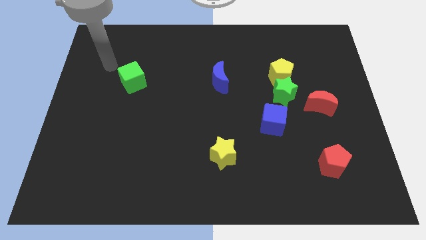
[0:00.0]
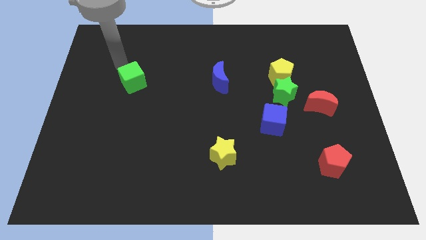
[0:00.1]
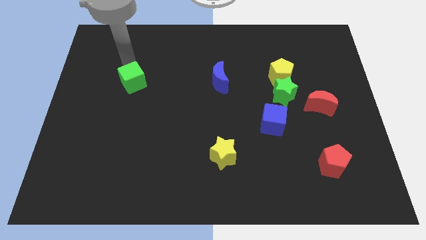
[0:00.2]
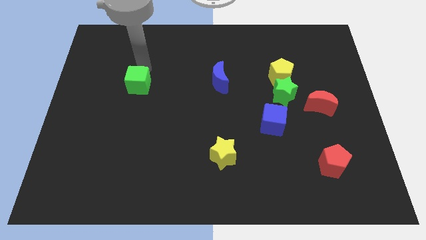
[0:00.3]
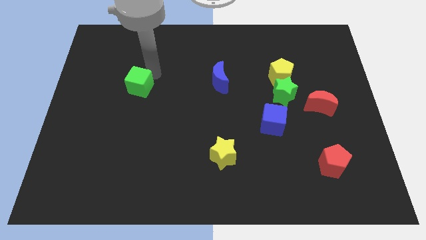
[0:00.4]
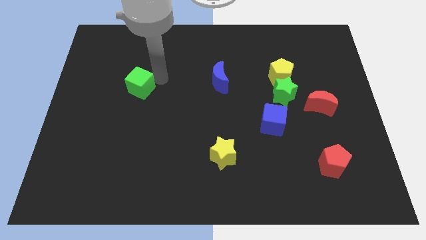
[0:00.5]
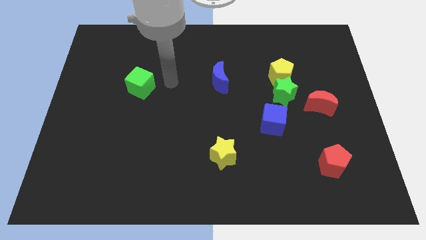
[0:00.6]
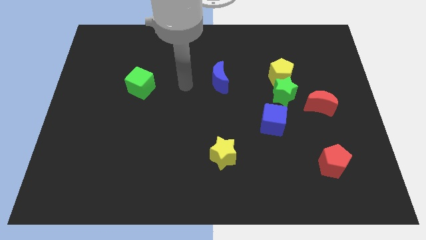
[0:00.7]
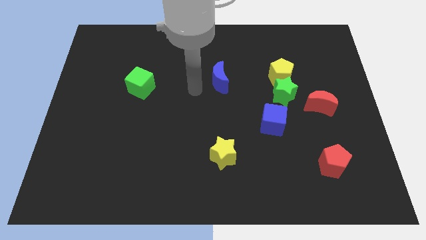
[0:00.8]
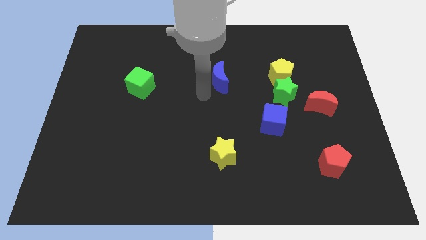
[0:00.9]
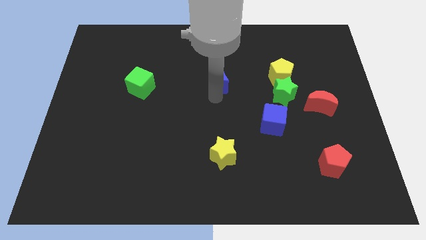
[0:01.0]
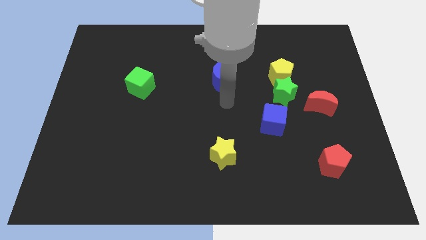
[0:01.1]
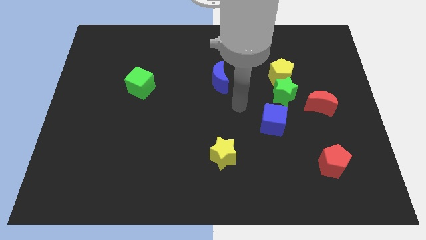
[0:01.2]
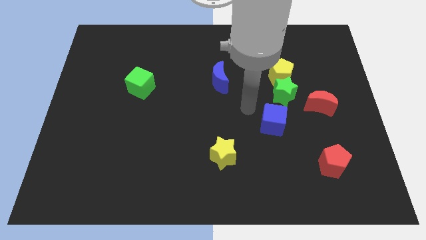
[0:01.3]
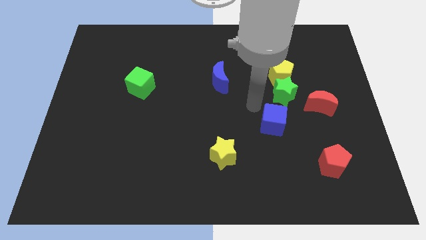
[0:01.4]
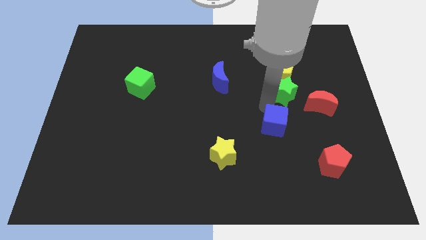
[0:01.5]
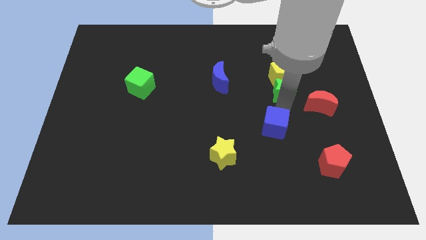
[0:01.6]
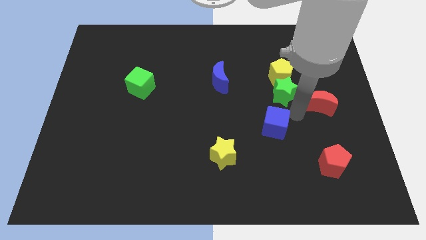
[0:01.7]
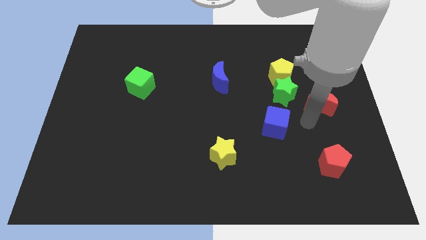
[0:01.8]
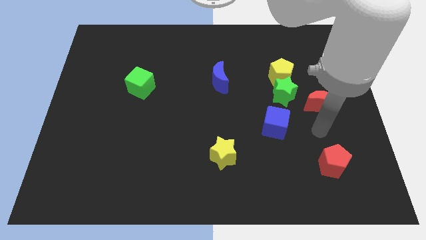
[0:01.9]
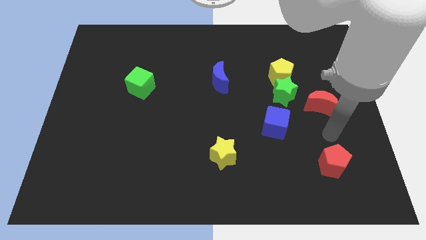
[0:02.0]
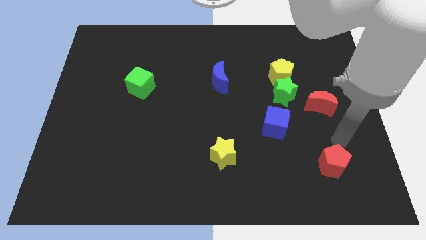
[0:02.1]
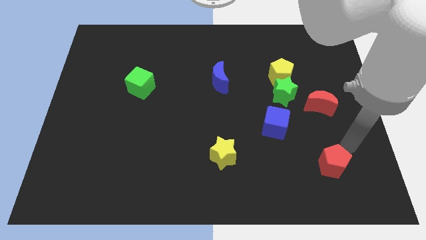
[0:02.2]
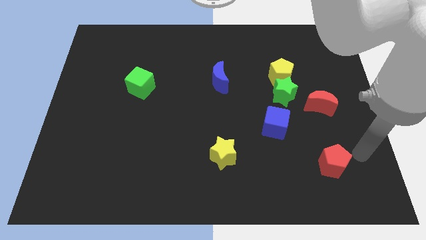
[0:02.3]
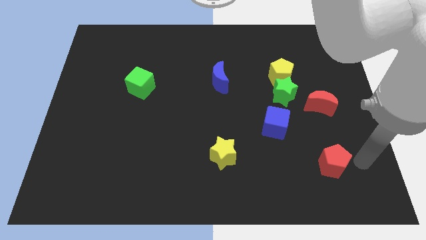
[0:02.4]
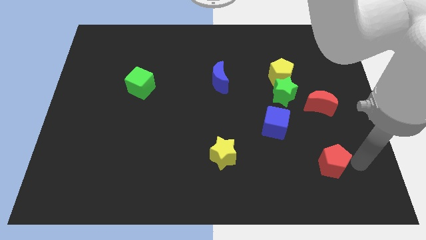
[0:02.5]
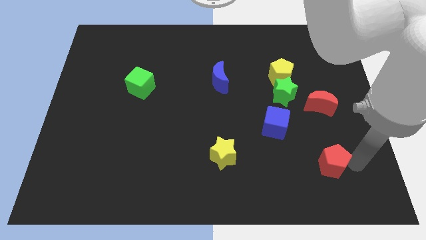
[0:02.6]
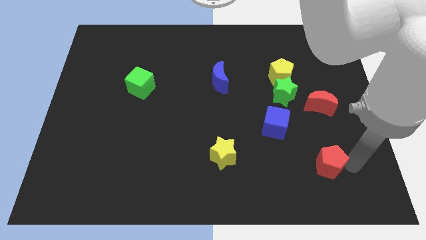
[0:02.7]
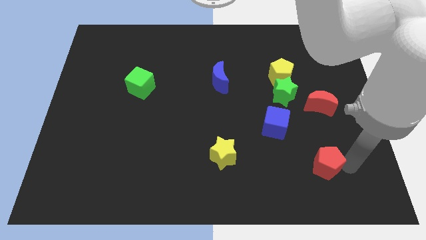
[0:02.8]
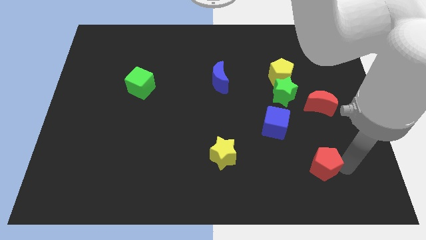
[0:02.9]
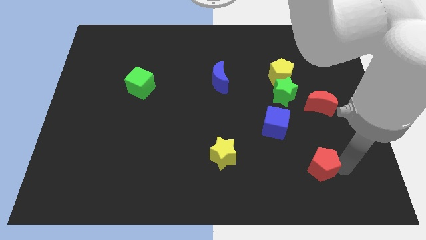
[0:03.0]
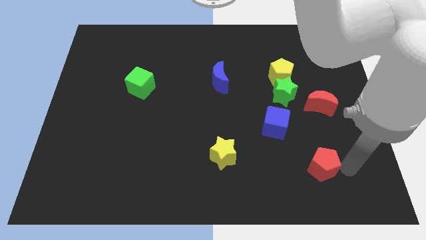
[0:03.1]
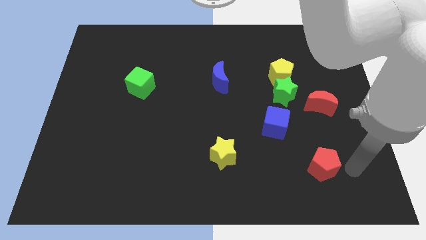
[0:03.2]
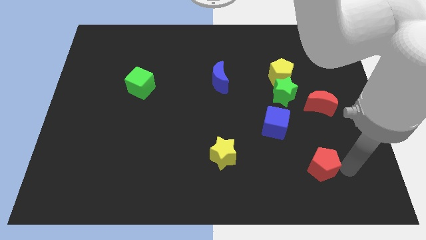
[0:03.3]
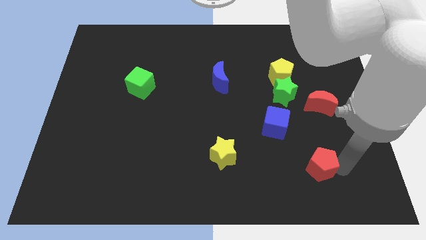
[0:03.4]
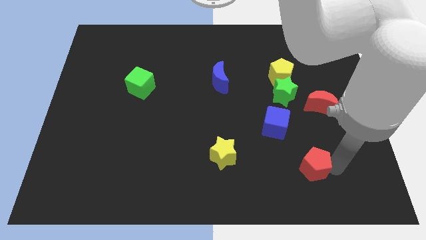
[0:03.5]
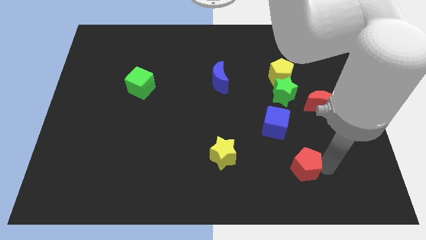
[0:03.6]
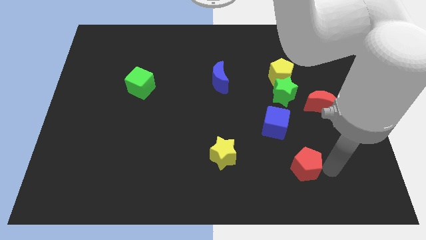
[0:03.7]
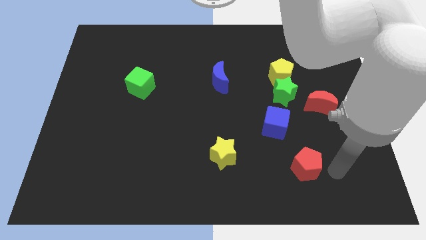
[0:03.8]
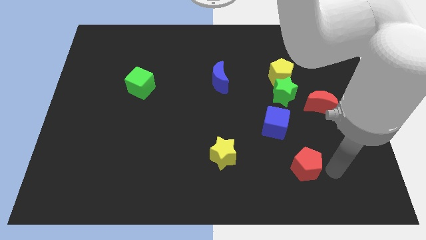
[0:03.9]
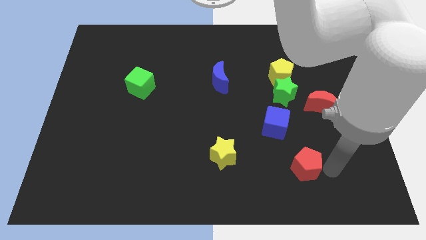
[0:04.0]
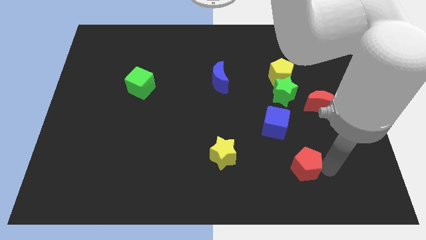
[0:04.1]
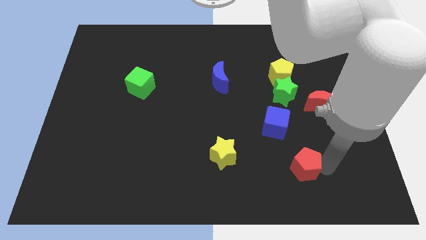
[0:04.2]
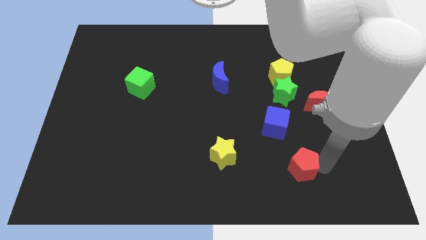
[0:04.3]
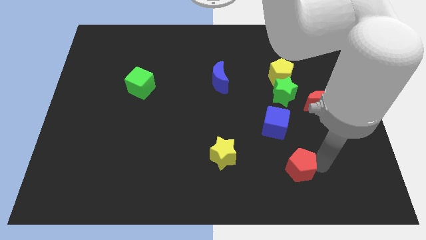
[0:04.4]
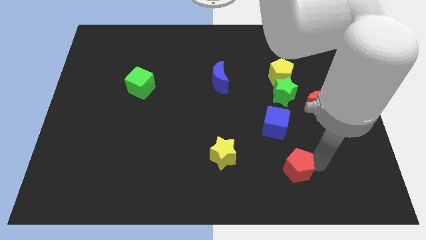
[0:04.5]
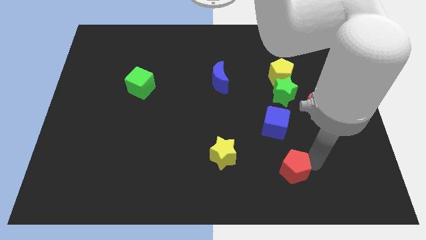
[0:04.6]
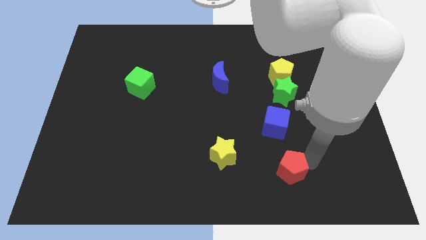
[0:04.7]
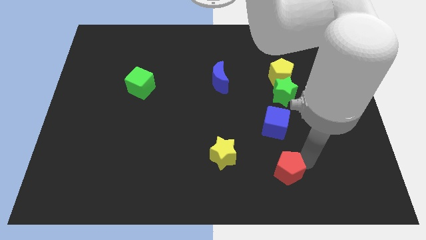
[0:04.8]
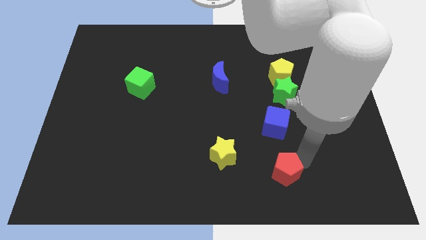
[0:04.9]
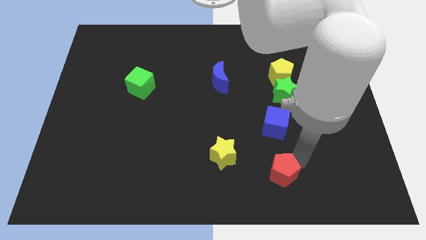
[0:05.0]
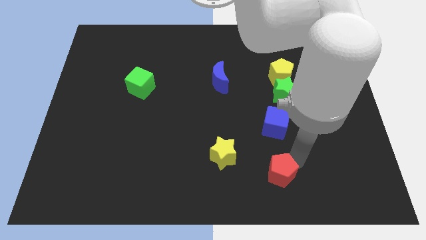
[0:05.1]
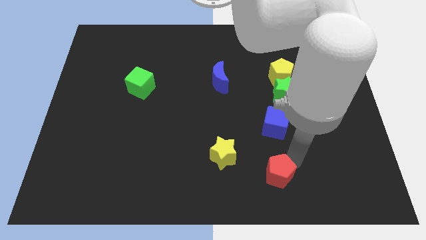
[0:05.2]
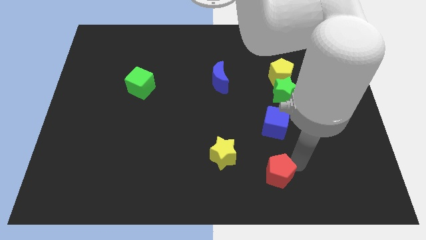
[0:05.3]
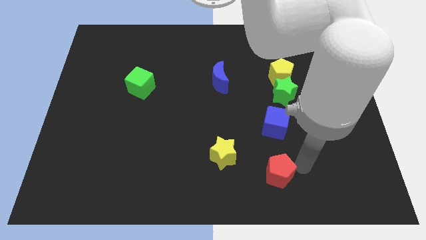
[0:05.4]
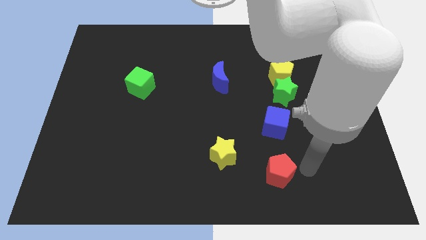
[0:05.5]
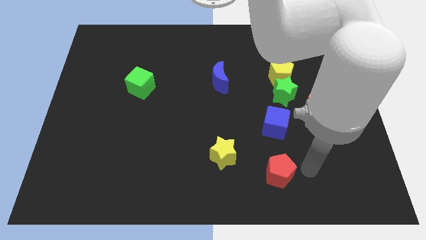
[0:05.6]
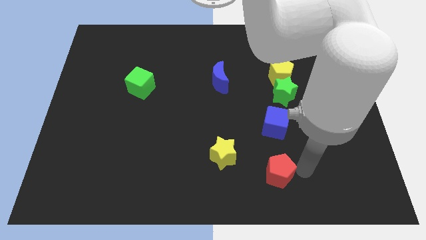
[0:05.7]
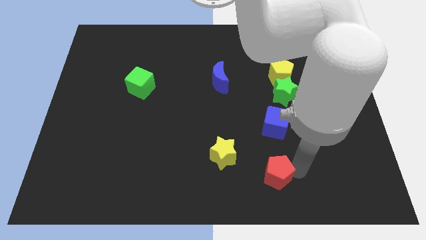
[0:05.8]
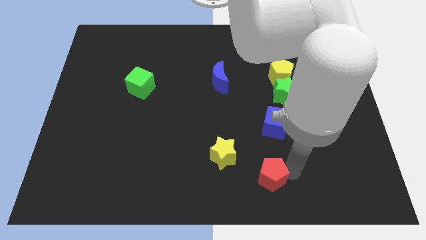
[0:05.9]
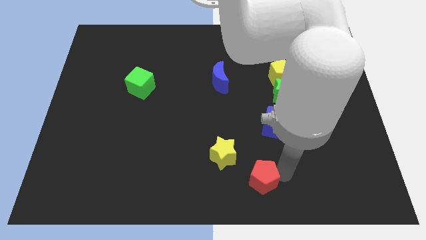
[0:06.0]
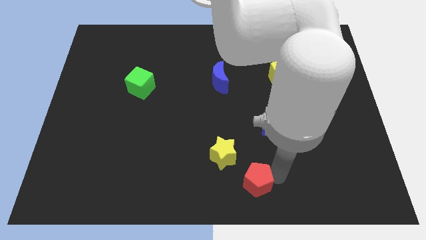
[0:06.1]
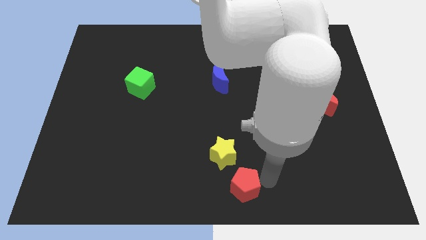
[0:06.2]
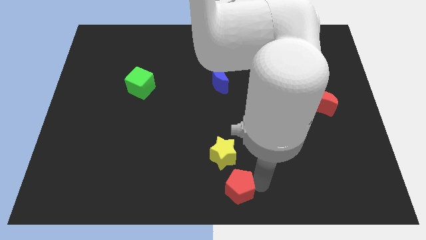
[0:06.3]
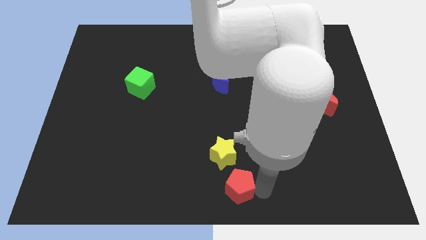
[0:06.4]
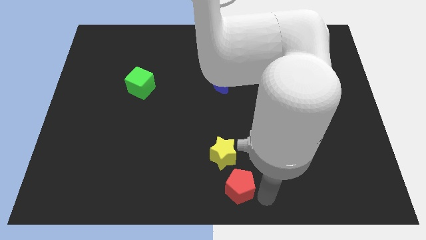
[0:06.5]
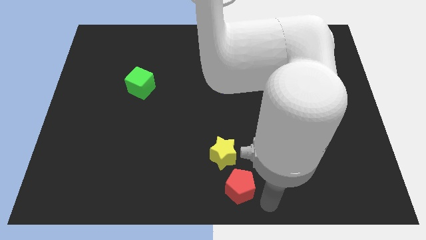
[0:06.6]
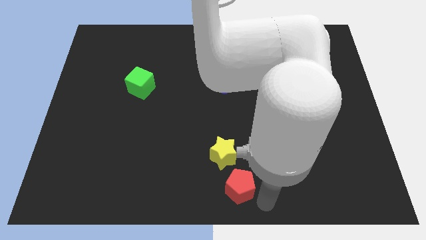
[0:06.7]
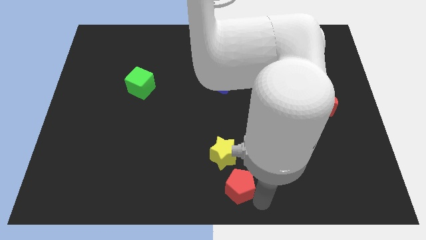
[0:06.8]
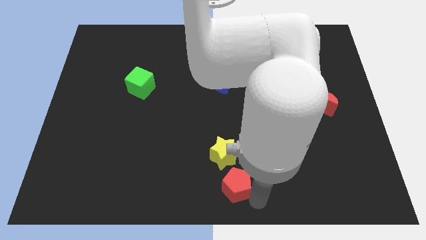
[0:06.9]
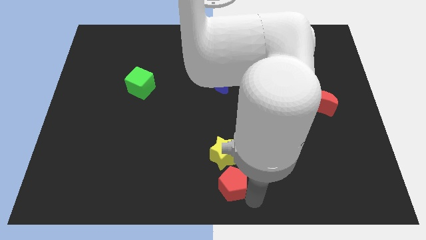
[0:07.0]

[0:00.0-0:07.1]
move the red pentagon left

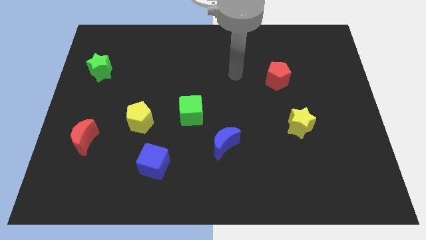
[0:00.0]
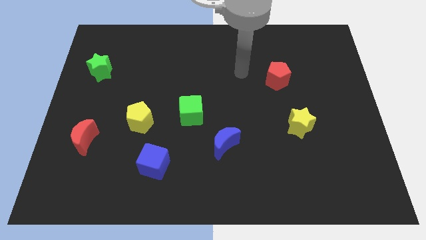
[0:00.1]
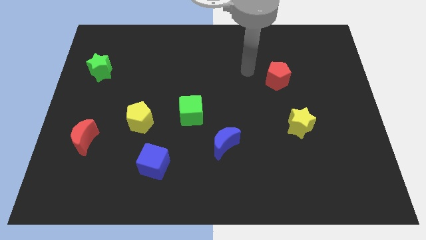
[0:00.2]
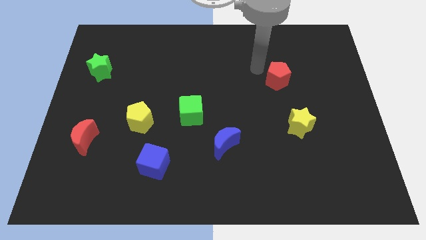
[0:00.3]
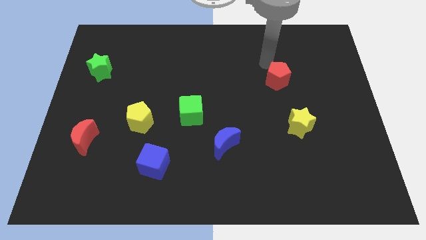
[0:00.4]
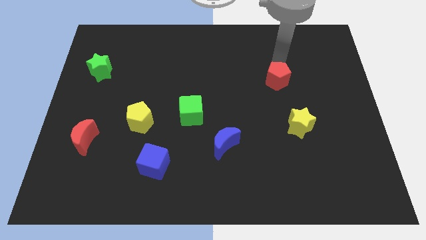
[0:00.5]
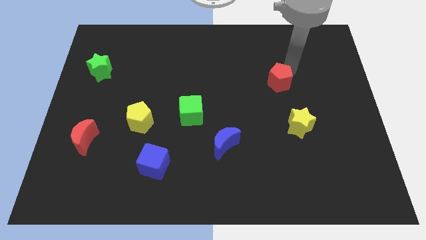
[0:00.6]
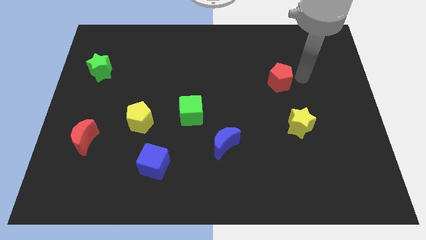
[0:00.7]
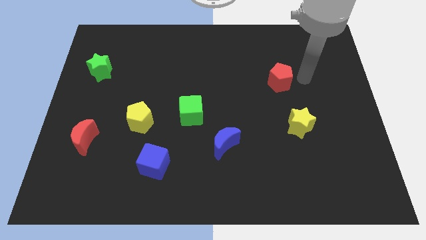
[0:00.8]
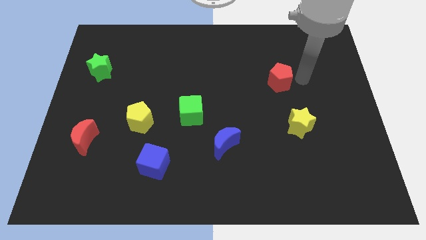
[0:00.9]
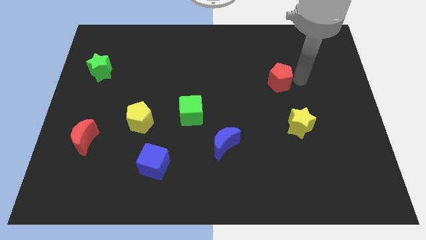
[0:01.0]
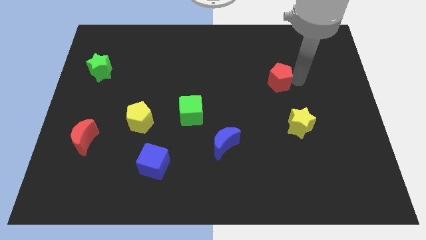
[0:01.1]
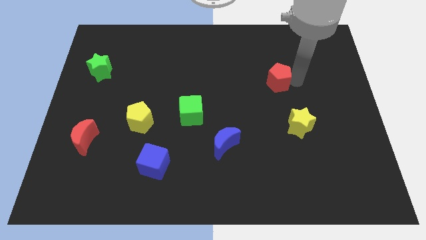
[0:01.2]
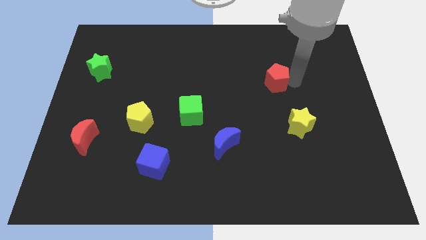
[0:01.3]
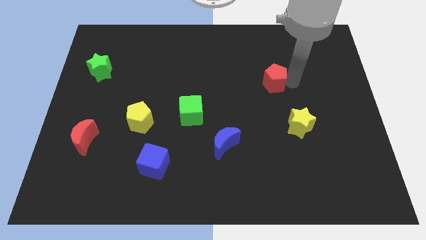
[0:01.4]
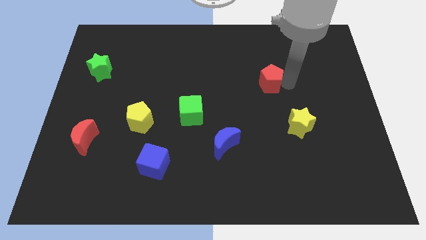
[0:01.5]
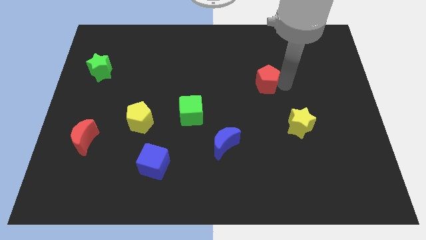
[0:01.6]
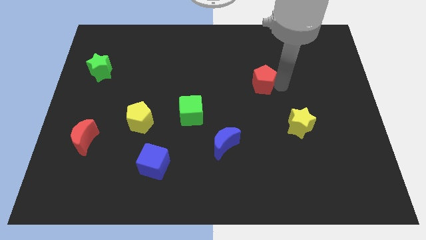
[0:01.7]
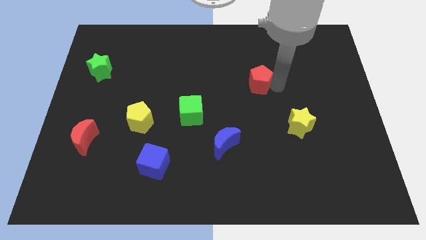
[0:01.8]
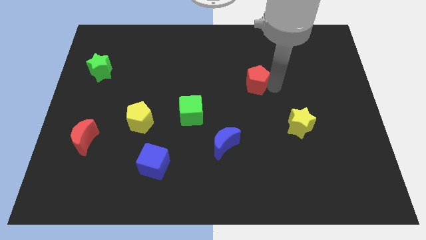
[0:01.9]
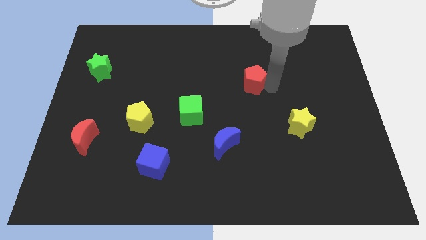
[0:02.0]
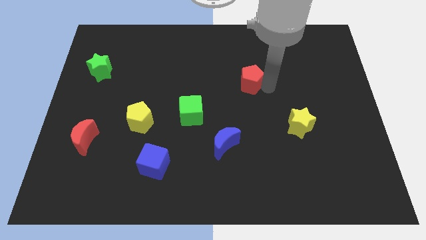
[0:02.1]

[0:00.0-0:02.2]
move the red pentagon a bit to the left
